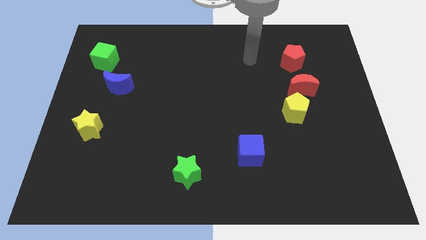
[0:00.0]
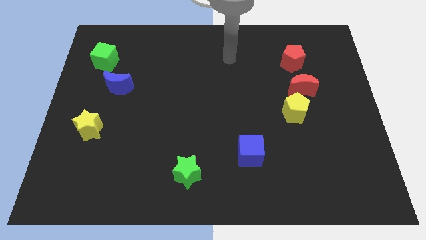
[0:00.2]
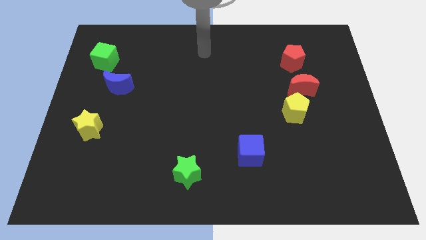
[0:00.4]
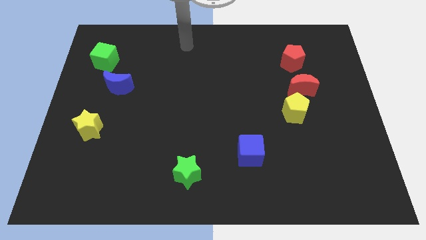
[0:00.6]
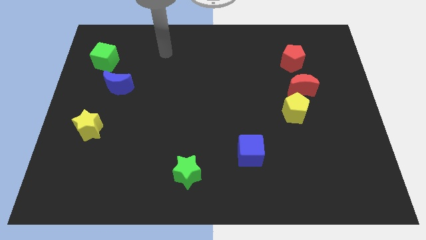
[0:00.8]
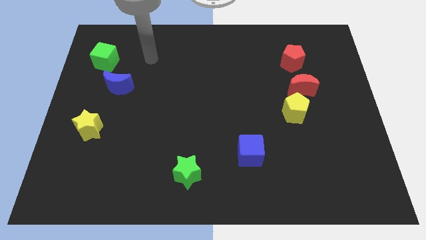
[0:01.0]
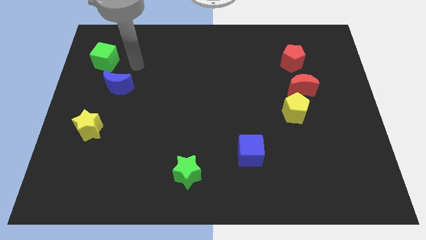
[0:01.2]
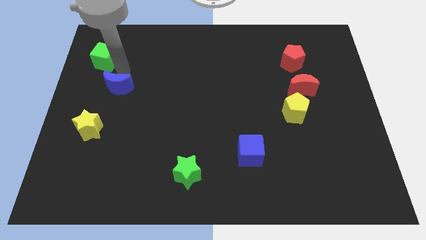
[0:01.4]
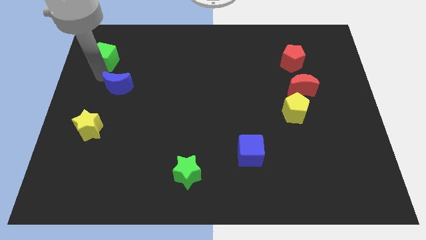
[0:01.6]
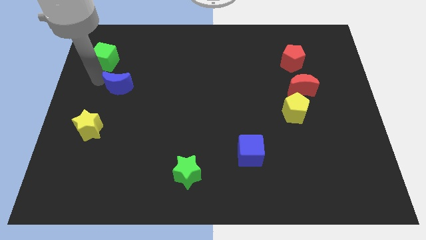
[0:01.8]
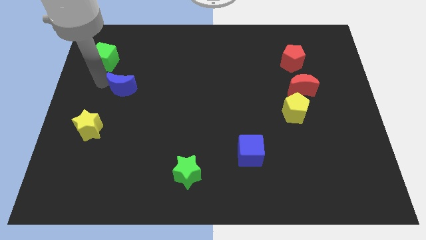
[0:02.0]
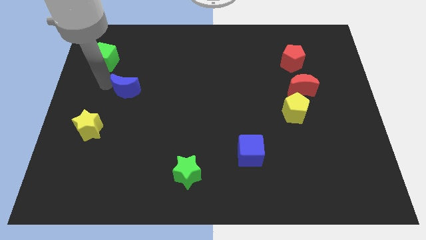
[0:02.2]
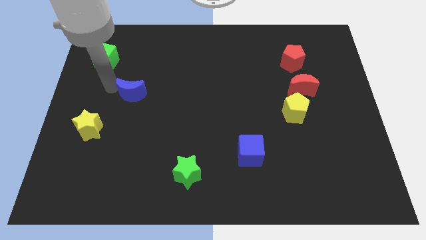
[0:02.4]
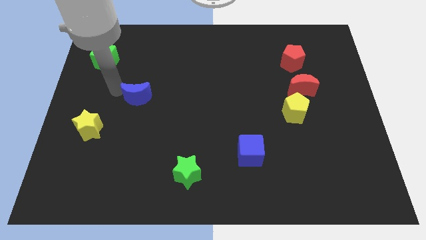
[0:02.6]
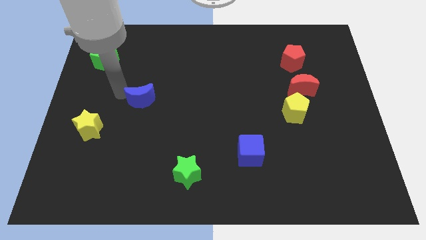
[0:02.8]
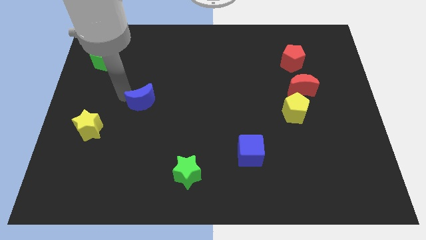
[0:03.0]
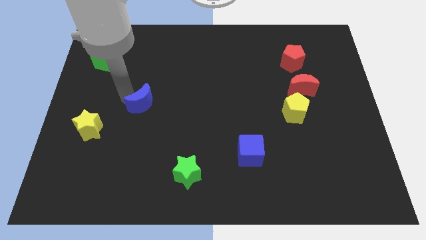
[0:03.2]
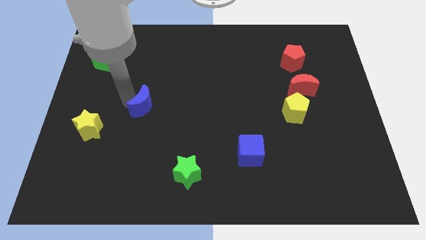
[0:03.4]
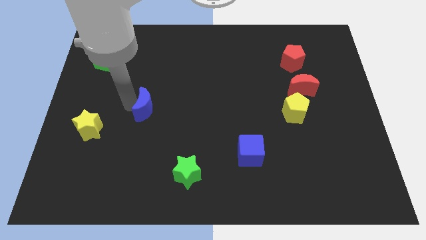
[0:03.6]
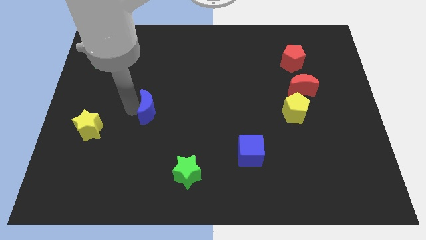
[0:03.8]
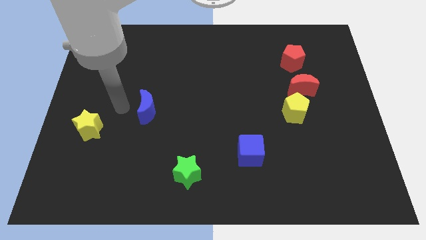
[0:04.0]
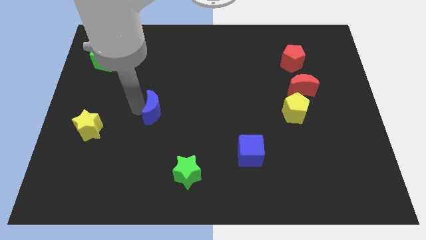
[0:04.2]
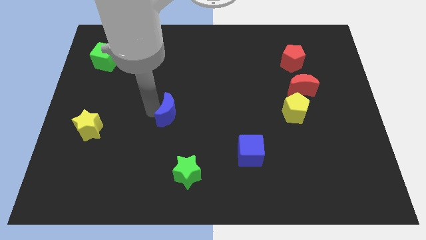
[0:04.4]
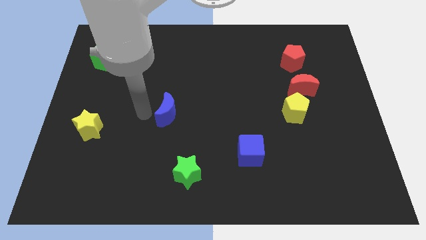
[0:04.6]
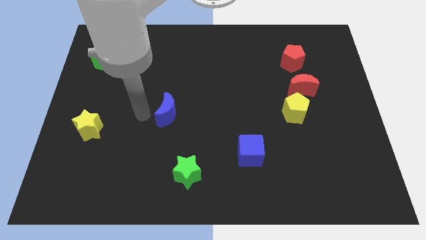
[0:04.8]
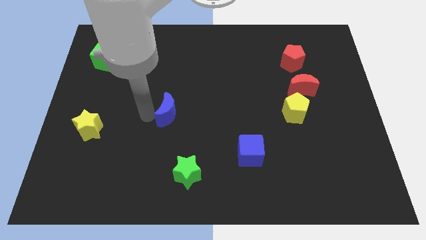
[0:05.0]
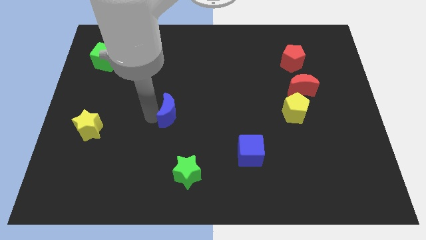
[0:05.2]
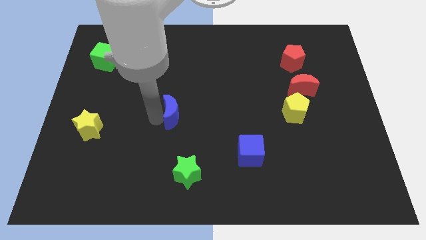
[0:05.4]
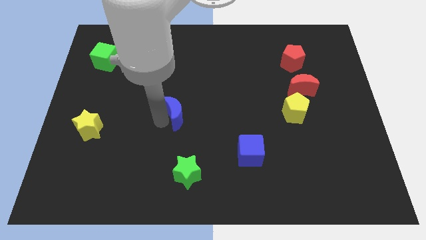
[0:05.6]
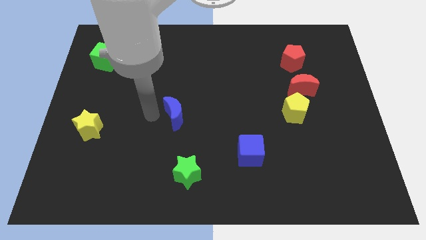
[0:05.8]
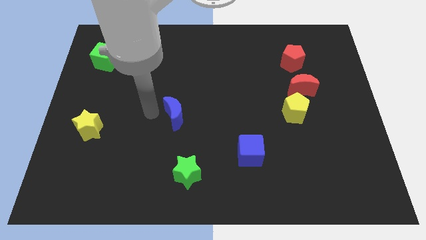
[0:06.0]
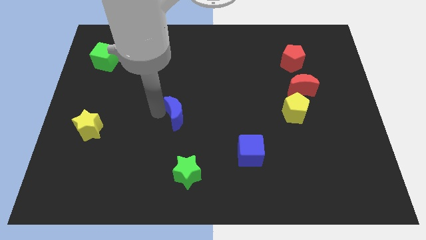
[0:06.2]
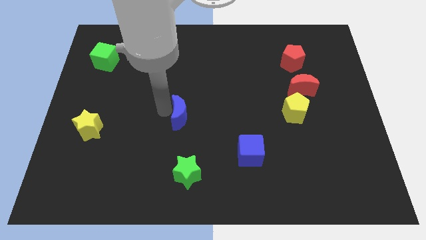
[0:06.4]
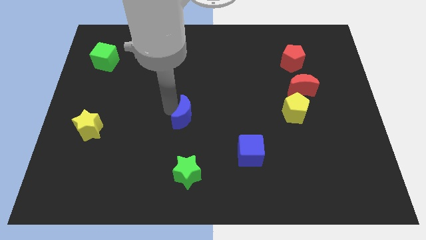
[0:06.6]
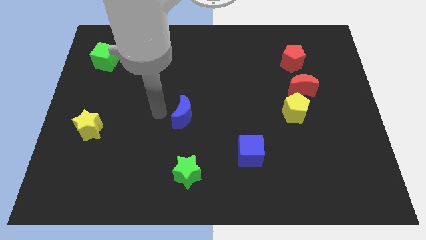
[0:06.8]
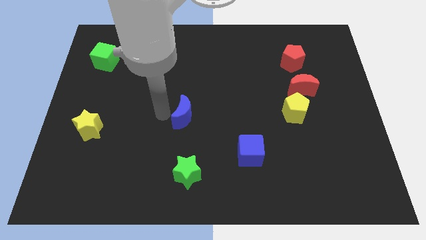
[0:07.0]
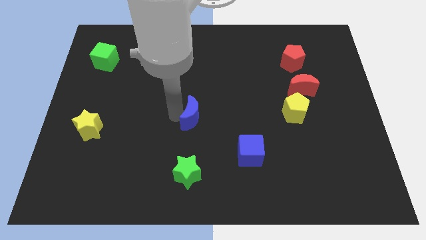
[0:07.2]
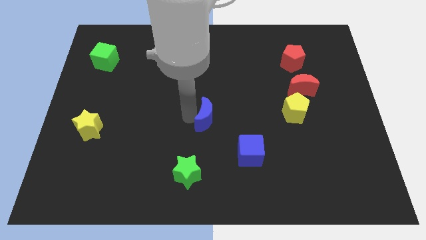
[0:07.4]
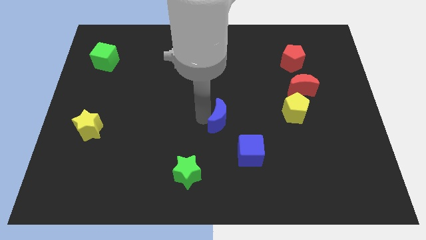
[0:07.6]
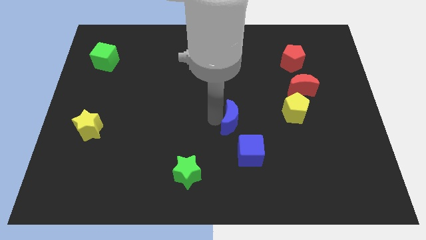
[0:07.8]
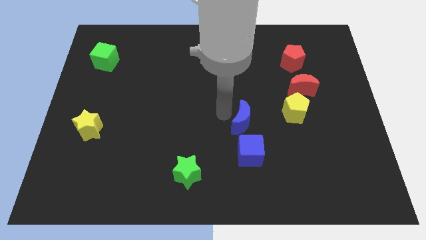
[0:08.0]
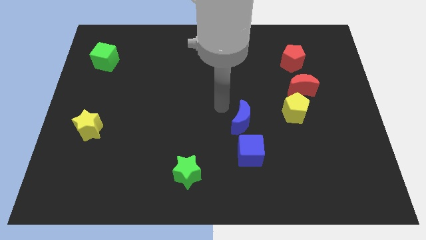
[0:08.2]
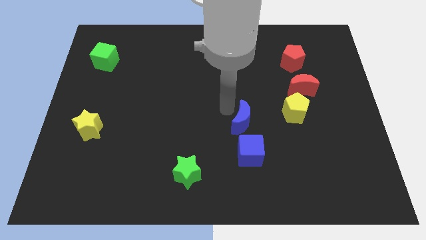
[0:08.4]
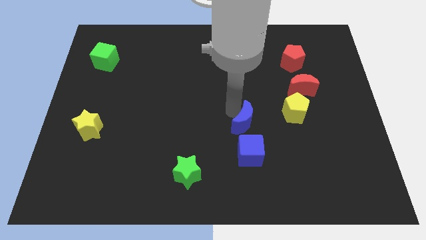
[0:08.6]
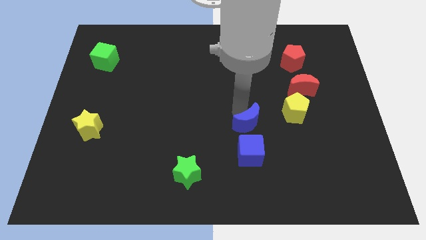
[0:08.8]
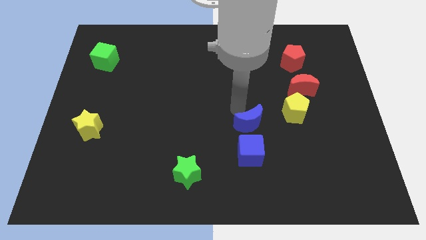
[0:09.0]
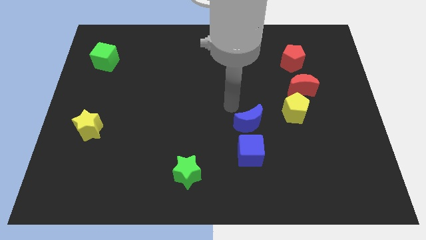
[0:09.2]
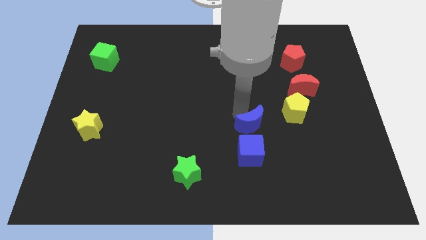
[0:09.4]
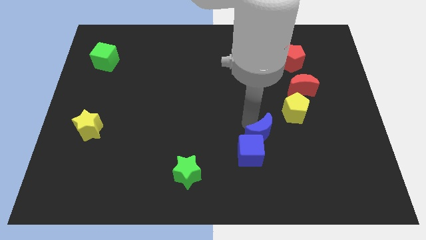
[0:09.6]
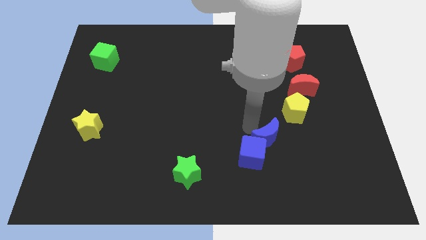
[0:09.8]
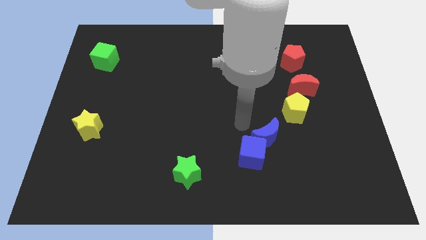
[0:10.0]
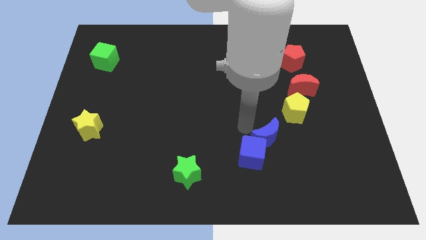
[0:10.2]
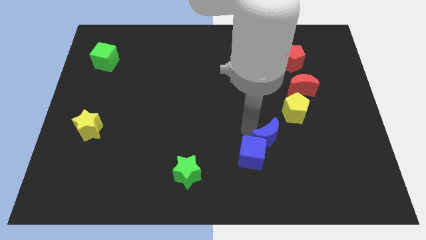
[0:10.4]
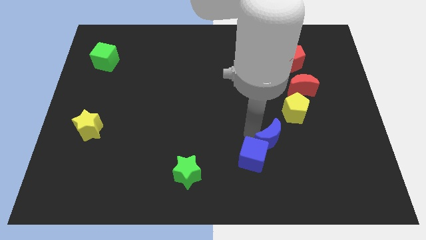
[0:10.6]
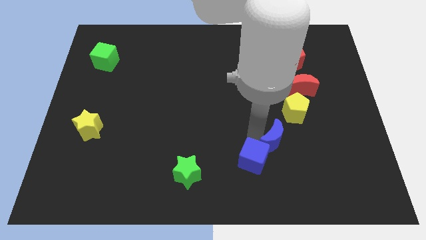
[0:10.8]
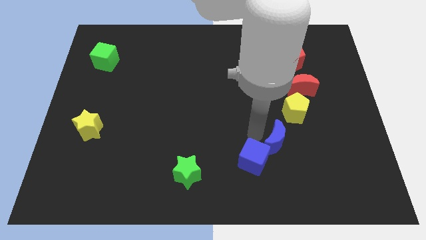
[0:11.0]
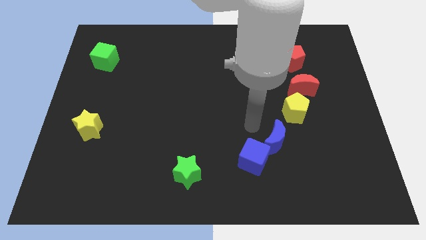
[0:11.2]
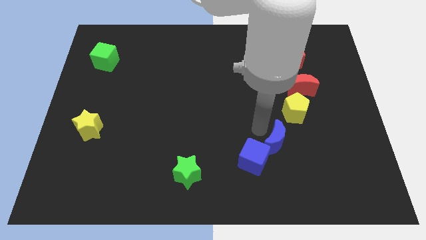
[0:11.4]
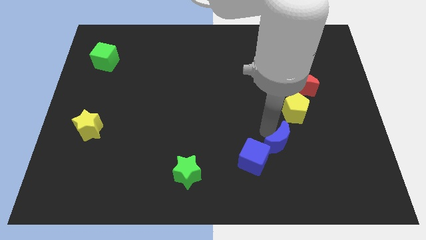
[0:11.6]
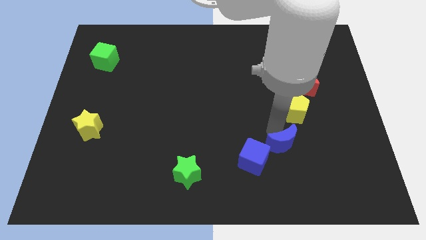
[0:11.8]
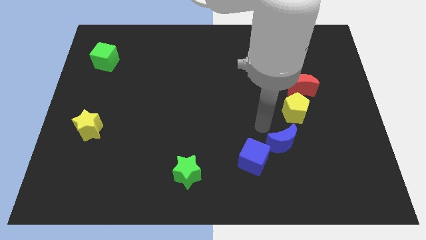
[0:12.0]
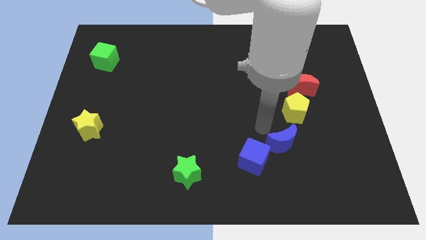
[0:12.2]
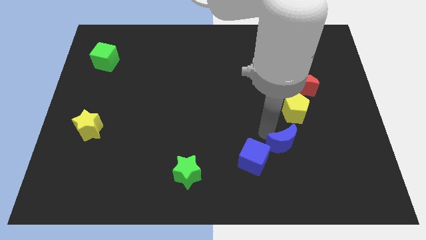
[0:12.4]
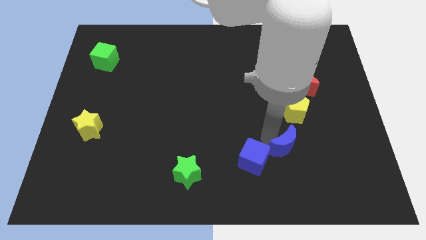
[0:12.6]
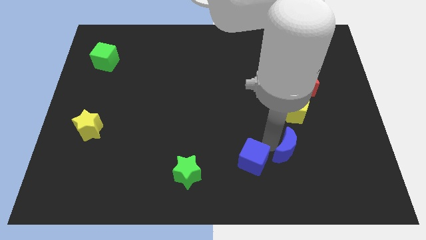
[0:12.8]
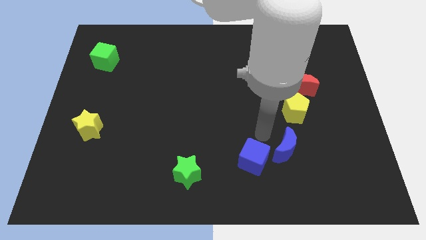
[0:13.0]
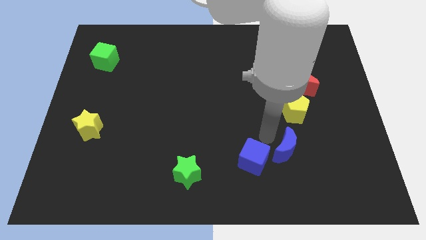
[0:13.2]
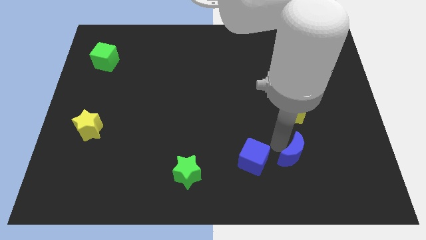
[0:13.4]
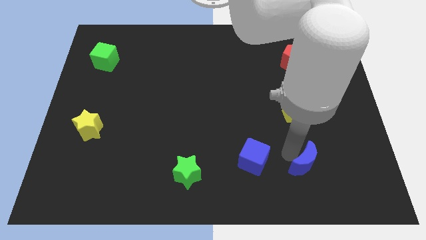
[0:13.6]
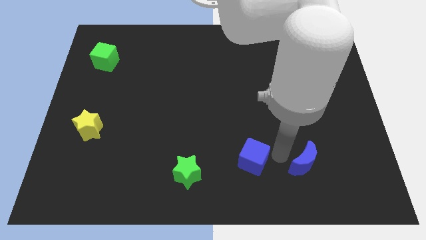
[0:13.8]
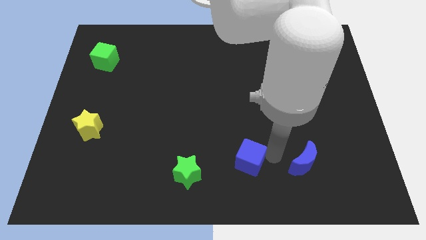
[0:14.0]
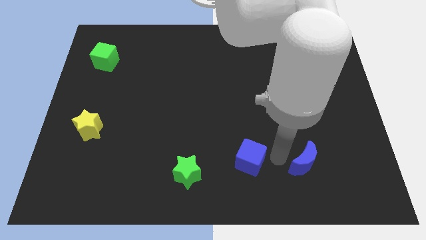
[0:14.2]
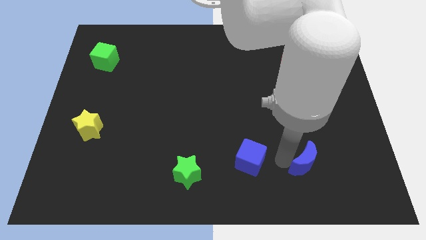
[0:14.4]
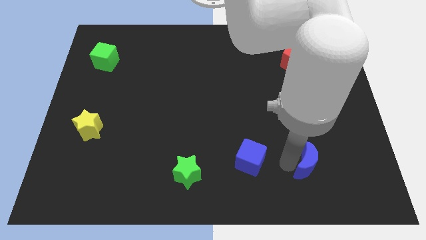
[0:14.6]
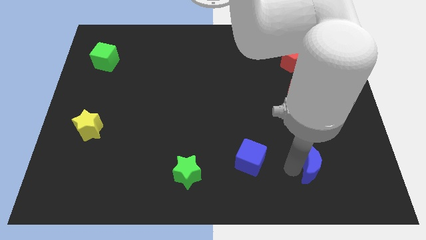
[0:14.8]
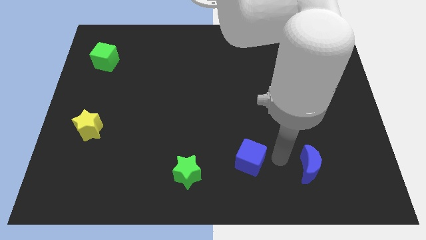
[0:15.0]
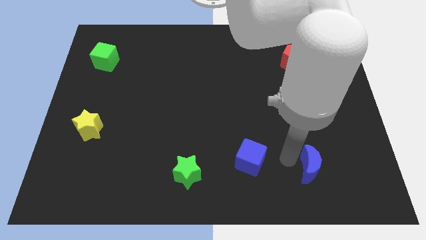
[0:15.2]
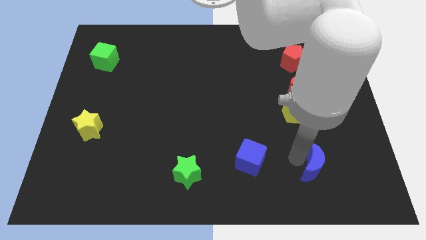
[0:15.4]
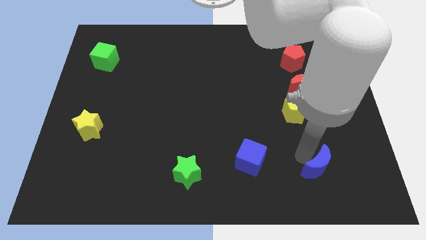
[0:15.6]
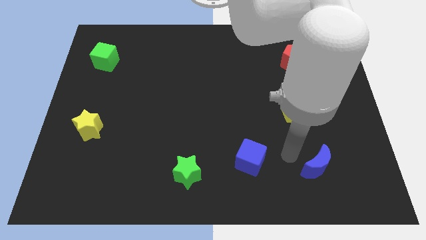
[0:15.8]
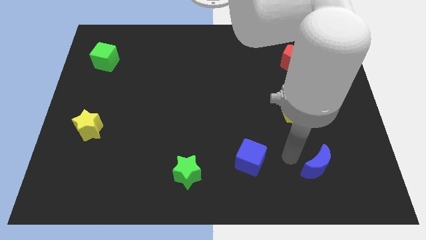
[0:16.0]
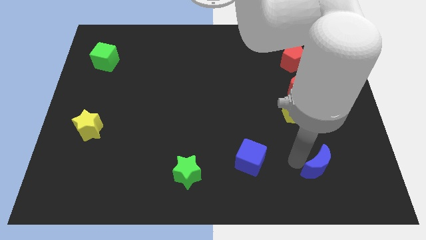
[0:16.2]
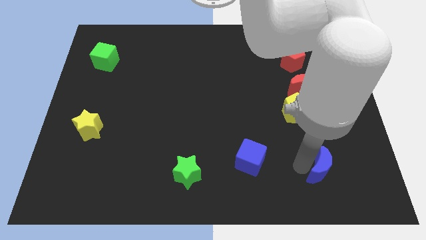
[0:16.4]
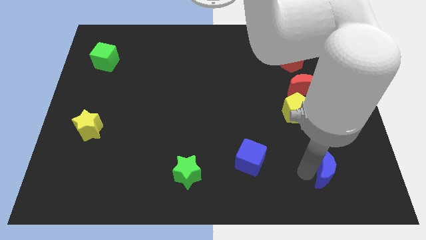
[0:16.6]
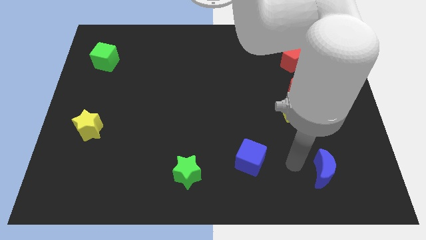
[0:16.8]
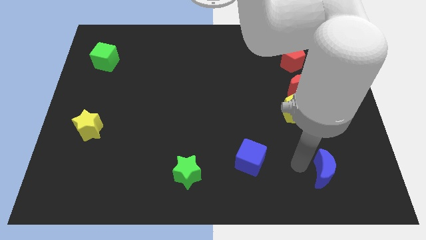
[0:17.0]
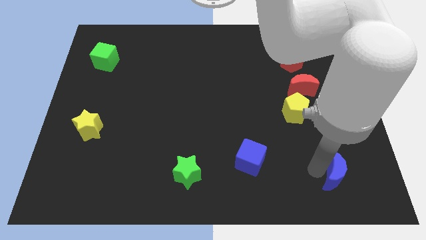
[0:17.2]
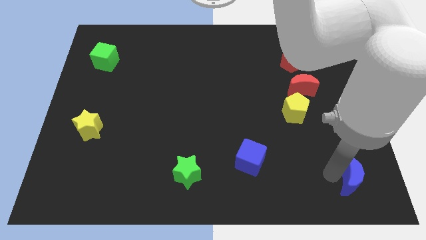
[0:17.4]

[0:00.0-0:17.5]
slide the blue moon to the bottom right corner
